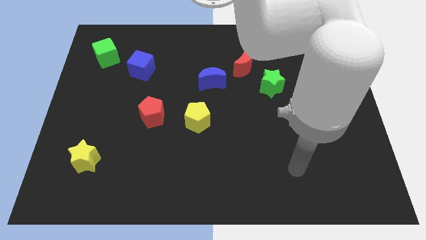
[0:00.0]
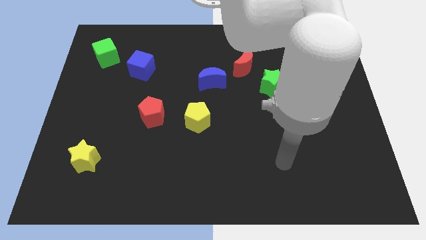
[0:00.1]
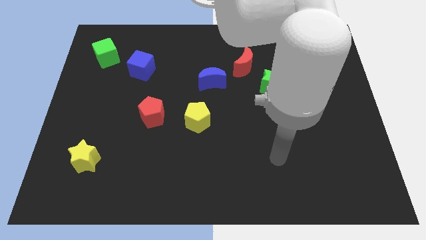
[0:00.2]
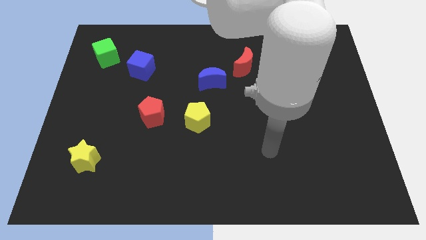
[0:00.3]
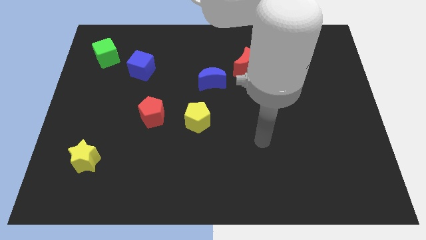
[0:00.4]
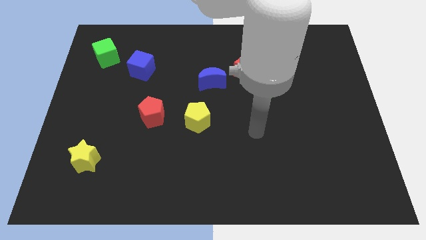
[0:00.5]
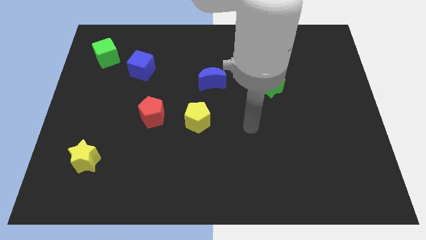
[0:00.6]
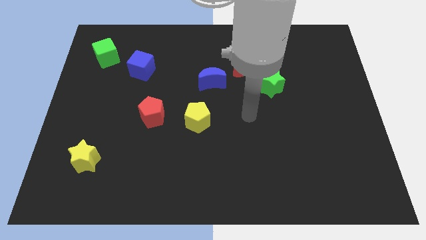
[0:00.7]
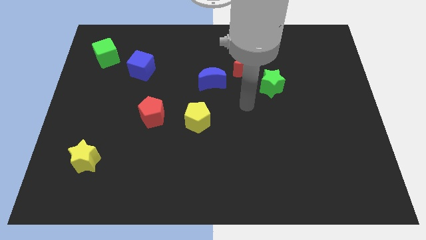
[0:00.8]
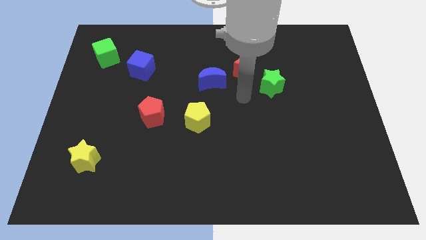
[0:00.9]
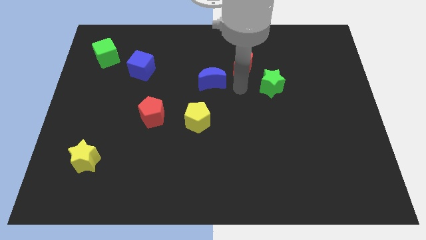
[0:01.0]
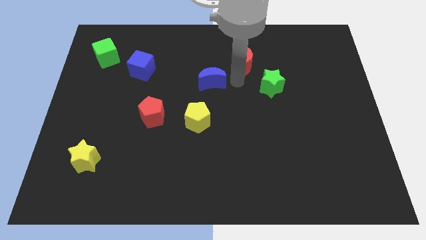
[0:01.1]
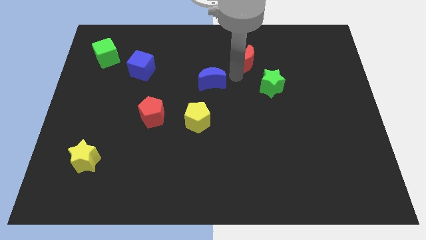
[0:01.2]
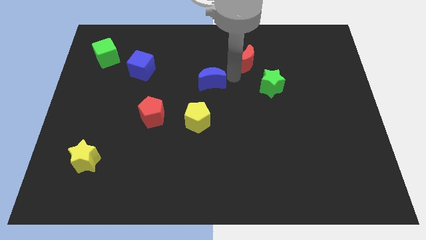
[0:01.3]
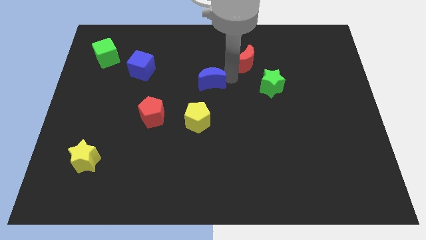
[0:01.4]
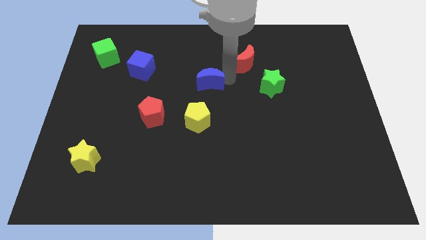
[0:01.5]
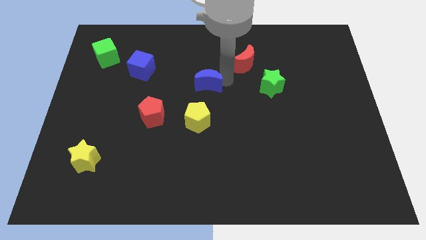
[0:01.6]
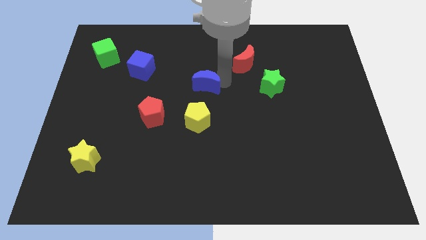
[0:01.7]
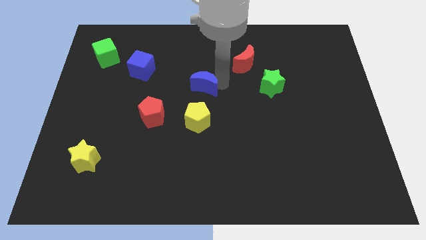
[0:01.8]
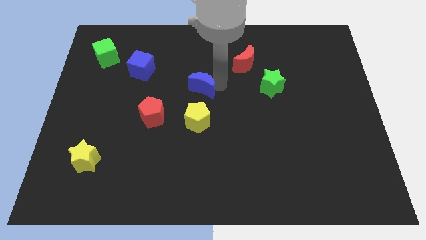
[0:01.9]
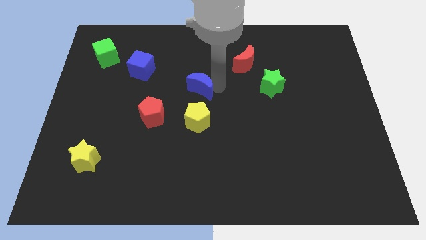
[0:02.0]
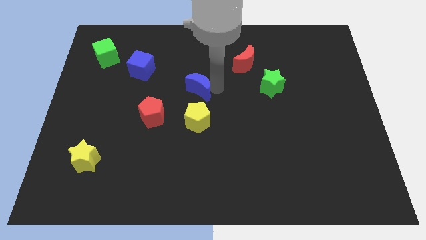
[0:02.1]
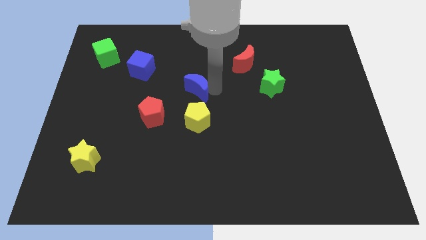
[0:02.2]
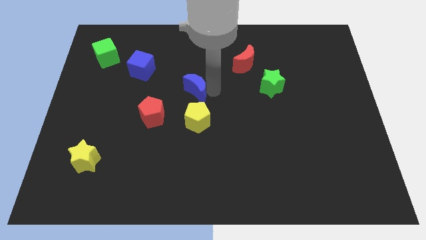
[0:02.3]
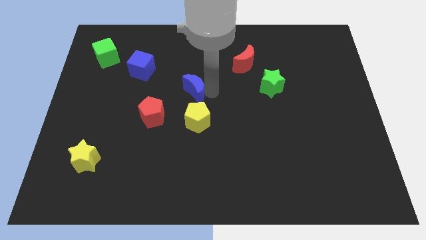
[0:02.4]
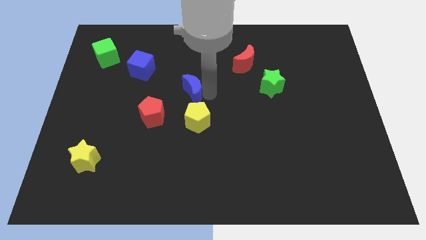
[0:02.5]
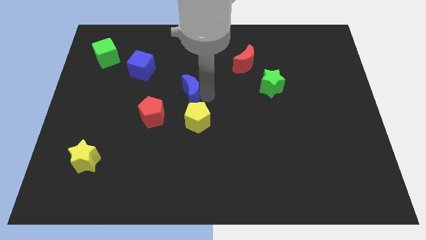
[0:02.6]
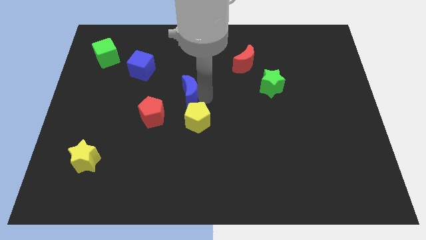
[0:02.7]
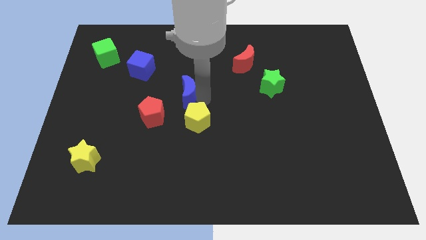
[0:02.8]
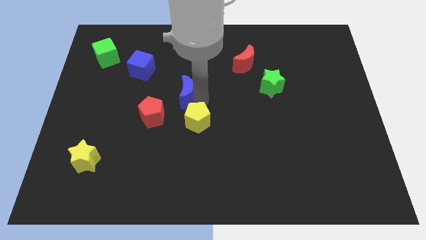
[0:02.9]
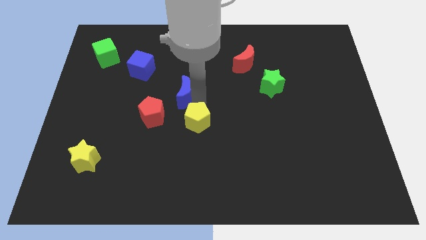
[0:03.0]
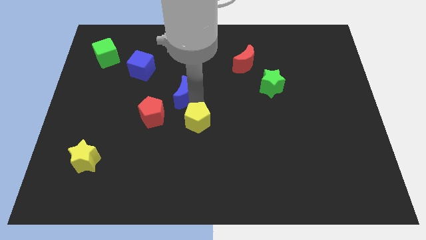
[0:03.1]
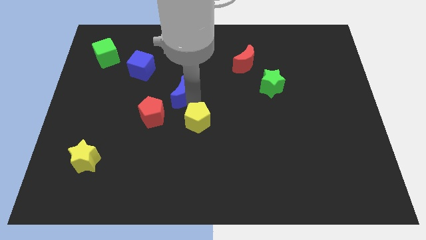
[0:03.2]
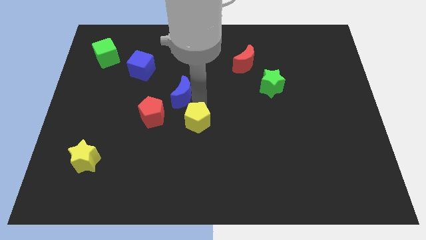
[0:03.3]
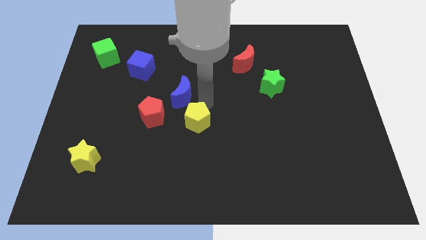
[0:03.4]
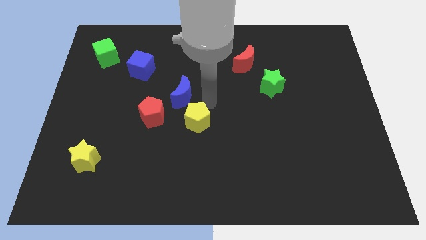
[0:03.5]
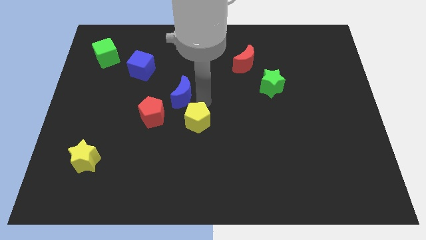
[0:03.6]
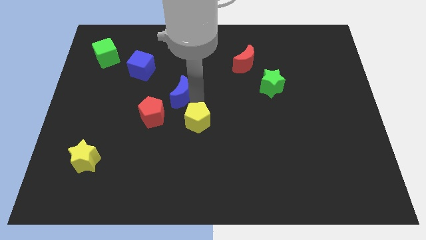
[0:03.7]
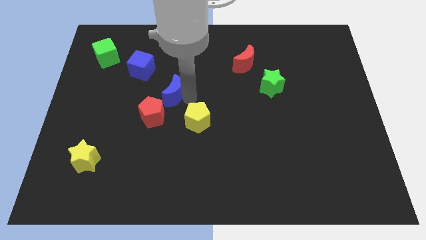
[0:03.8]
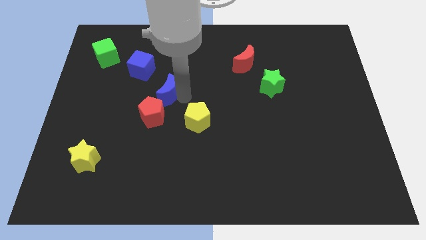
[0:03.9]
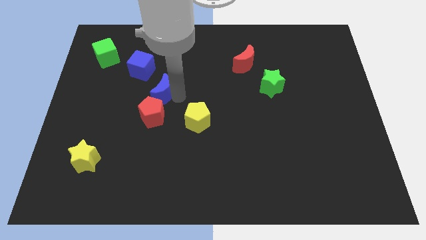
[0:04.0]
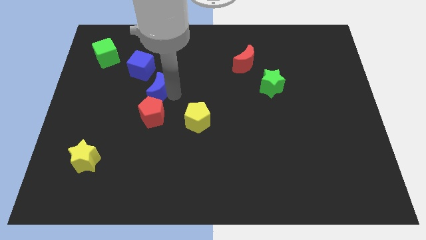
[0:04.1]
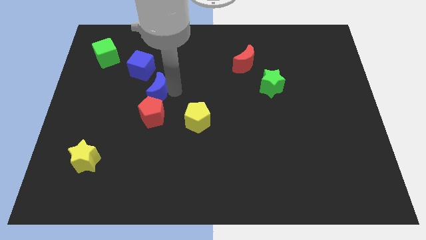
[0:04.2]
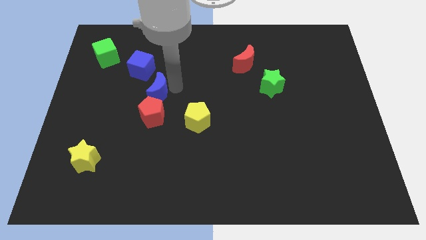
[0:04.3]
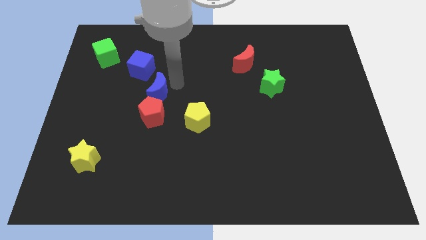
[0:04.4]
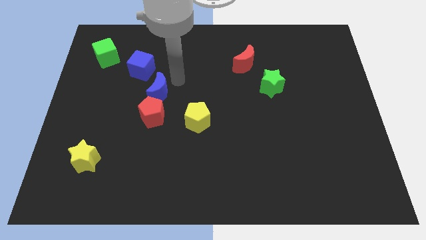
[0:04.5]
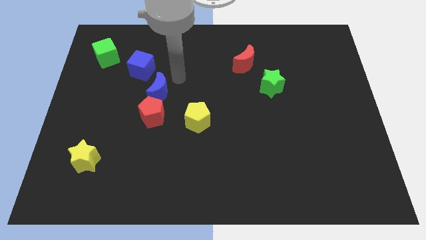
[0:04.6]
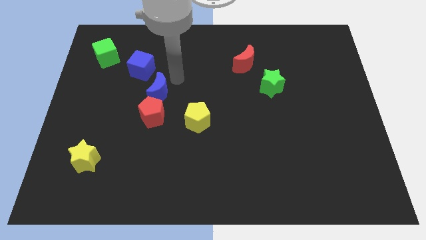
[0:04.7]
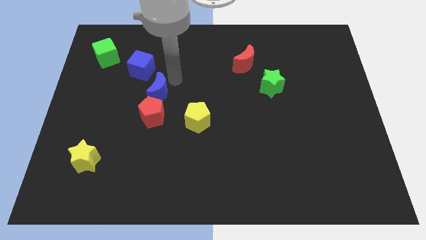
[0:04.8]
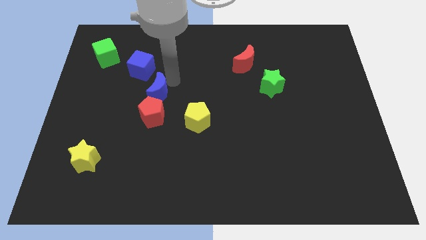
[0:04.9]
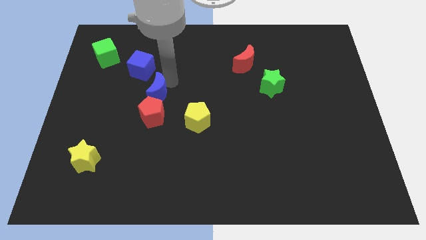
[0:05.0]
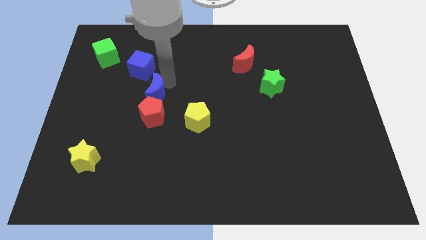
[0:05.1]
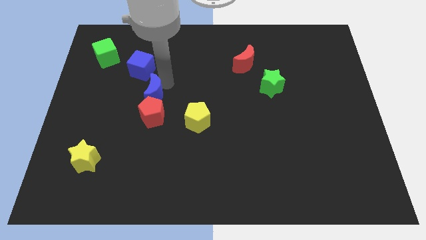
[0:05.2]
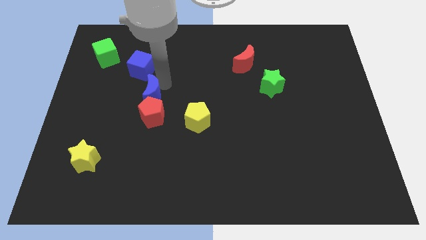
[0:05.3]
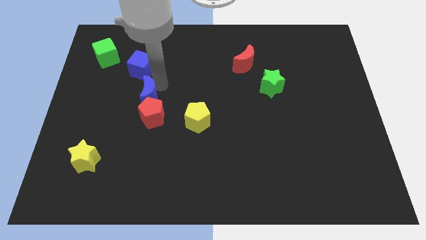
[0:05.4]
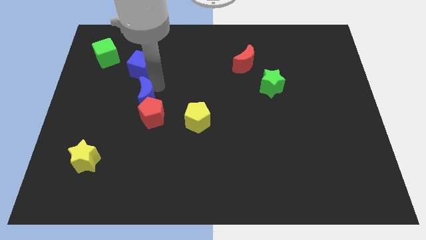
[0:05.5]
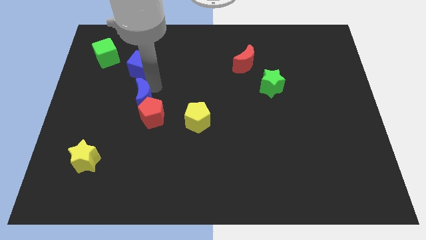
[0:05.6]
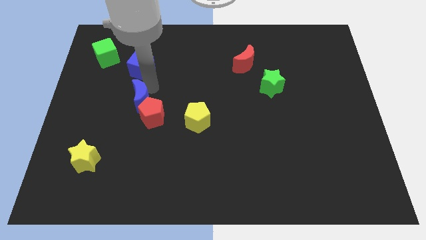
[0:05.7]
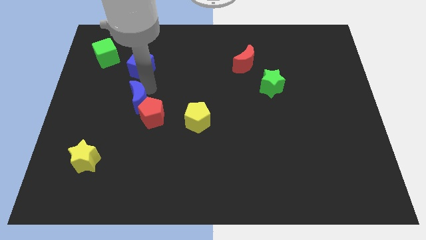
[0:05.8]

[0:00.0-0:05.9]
push the blue moon just left of the red pentagon

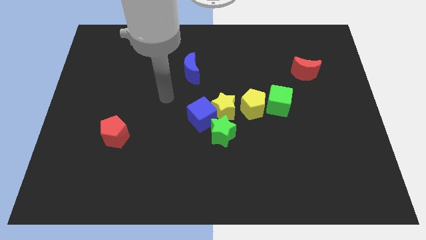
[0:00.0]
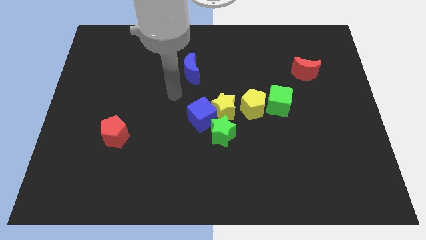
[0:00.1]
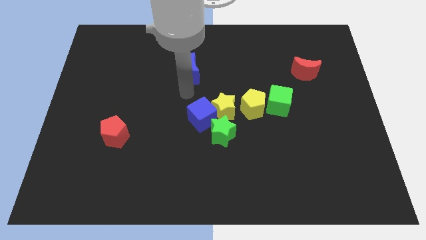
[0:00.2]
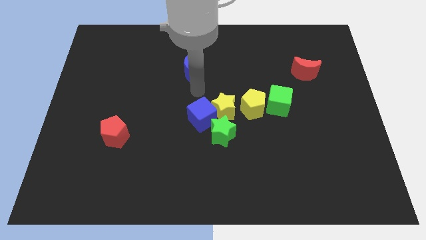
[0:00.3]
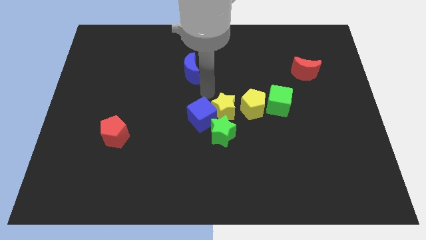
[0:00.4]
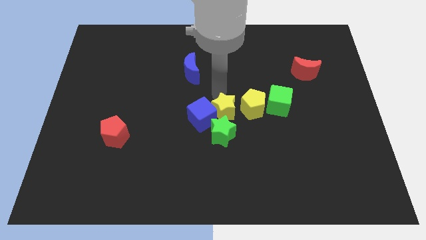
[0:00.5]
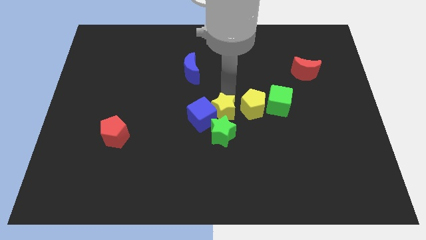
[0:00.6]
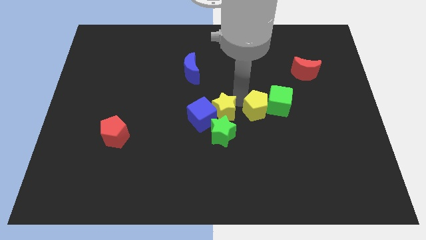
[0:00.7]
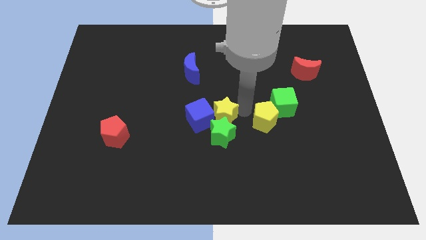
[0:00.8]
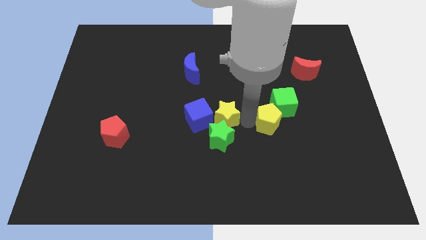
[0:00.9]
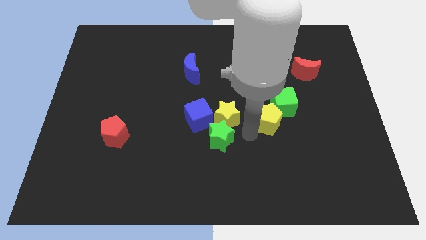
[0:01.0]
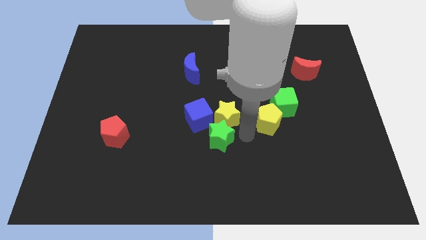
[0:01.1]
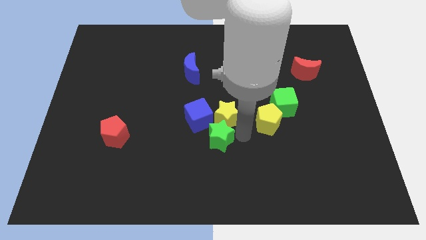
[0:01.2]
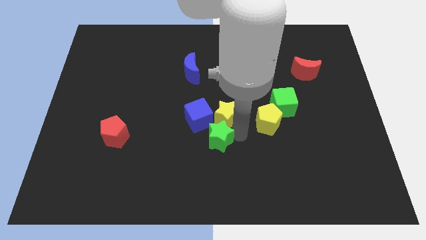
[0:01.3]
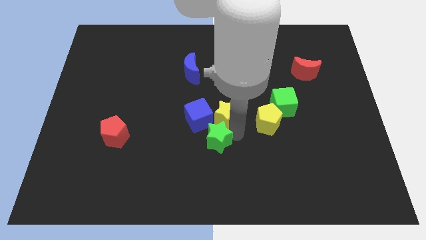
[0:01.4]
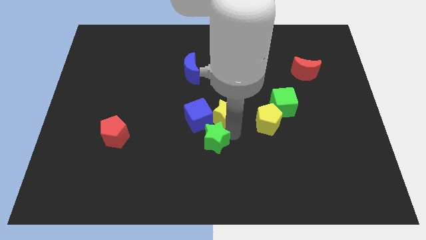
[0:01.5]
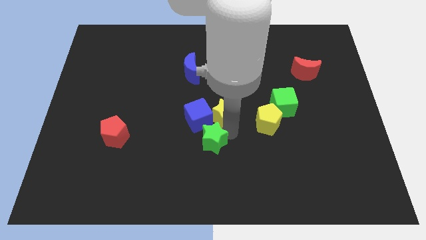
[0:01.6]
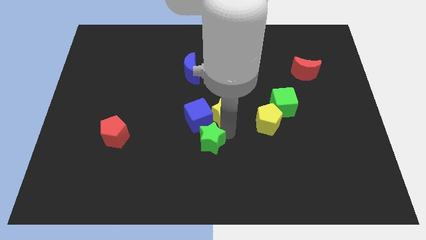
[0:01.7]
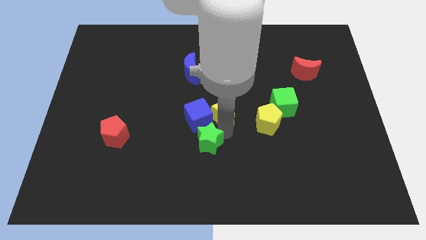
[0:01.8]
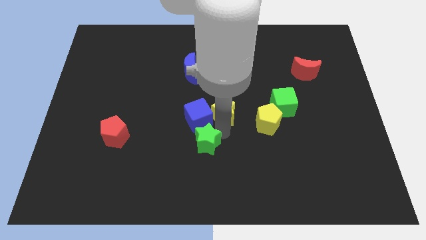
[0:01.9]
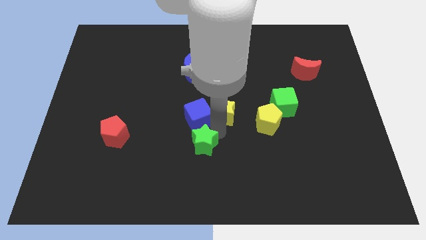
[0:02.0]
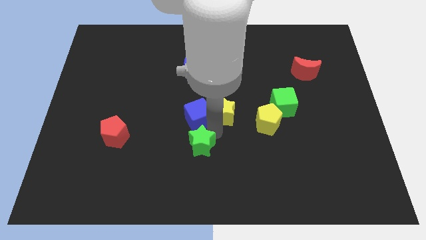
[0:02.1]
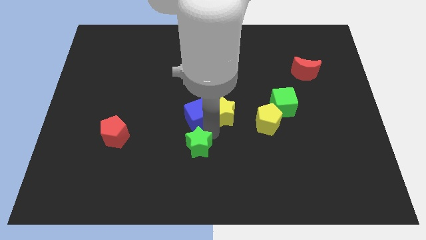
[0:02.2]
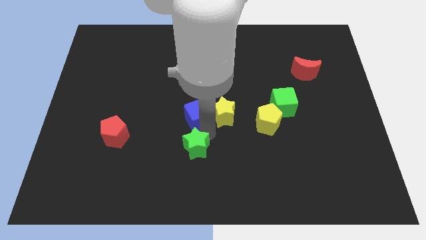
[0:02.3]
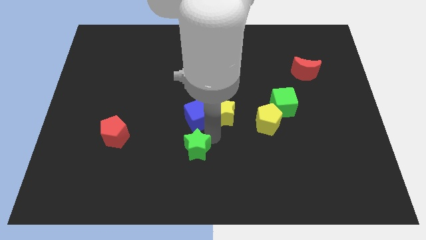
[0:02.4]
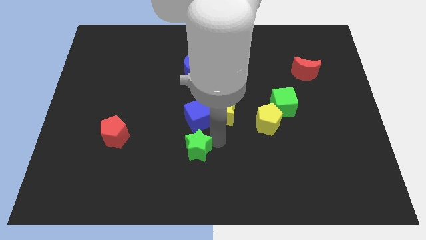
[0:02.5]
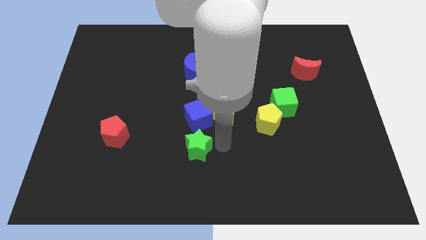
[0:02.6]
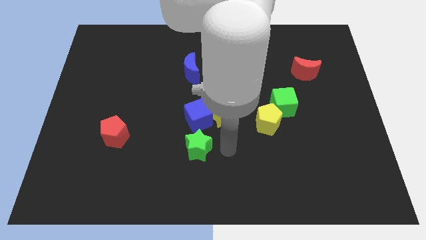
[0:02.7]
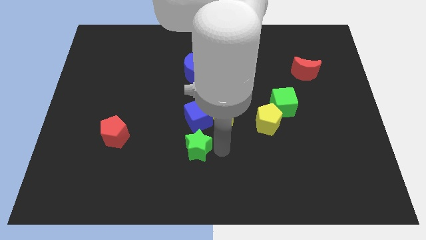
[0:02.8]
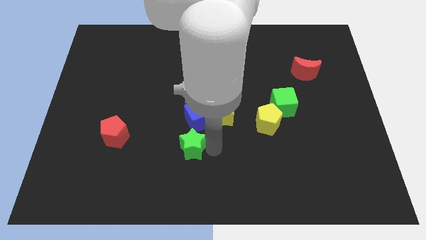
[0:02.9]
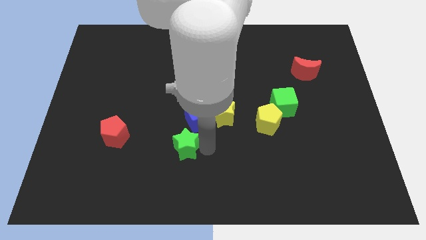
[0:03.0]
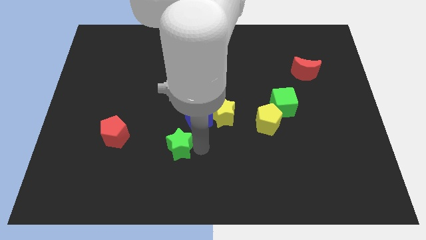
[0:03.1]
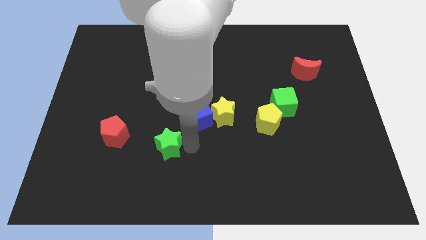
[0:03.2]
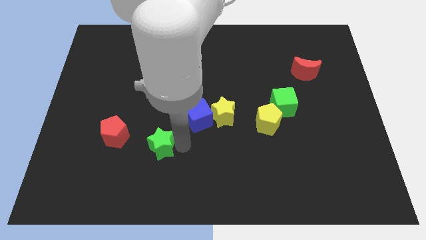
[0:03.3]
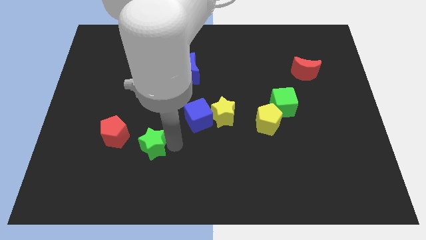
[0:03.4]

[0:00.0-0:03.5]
push the green star to the bottom right of the red pentagon
